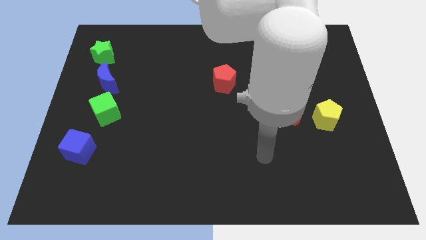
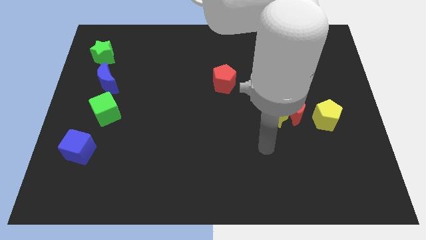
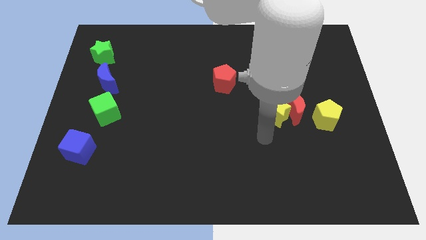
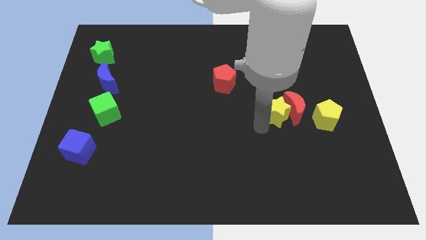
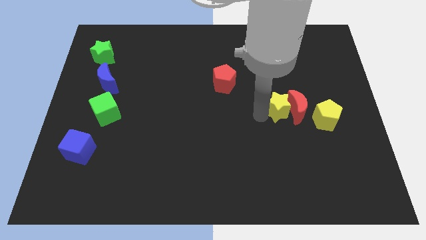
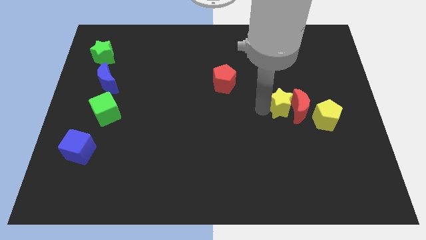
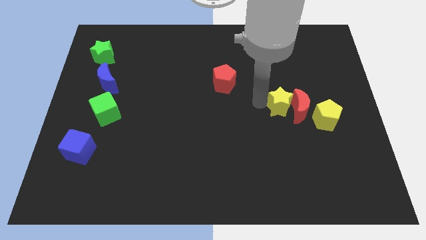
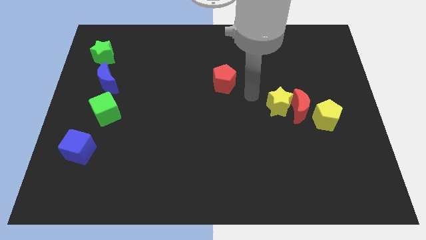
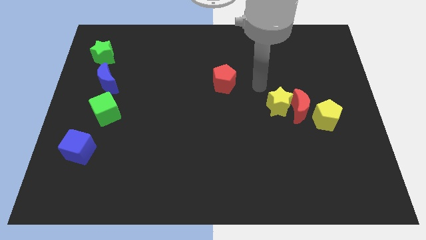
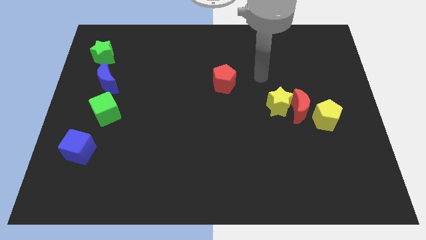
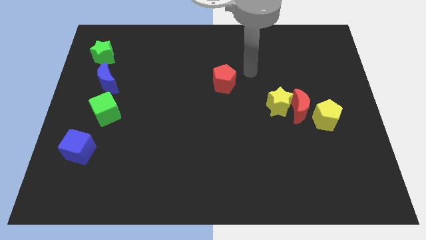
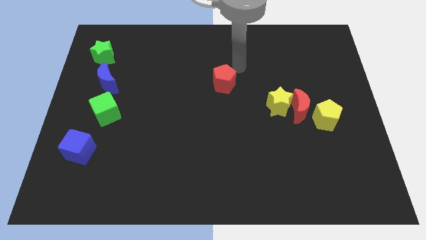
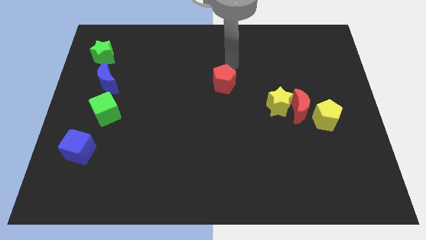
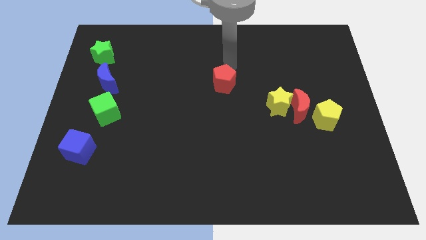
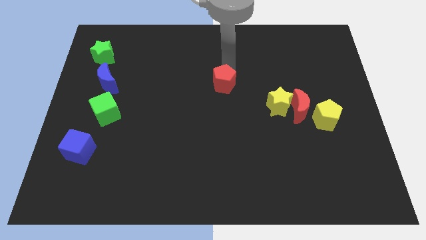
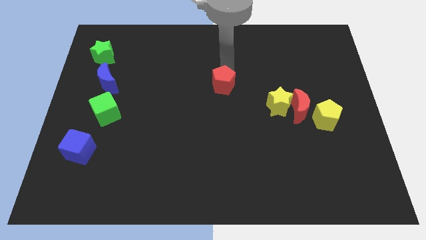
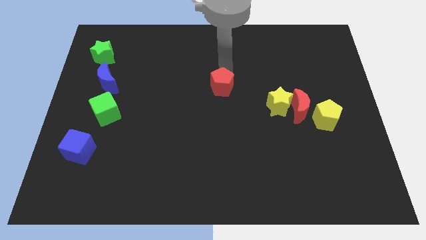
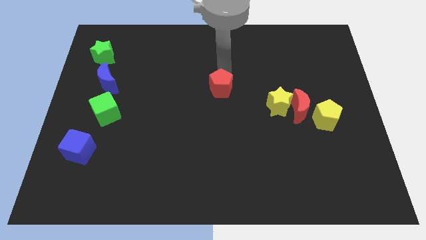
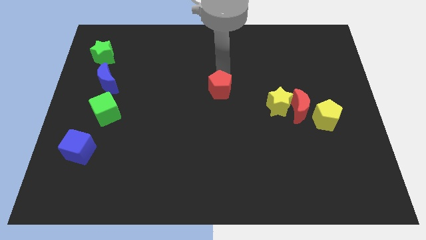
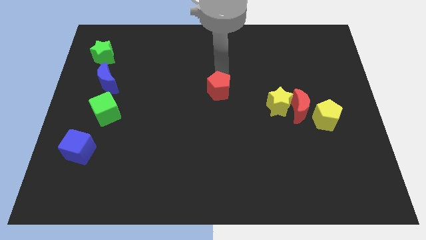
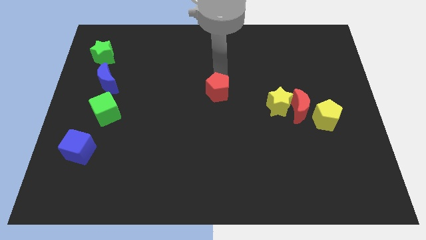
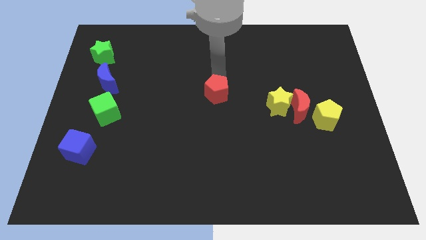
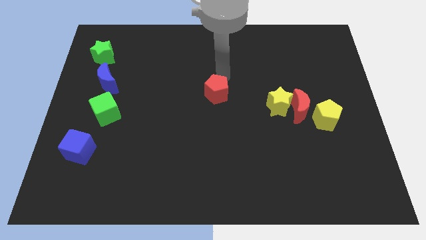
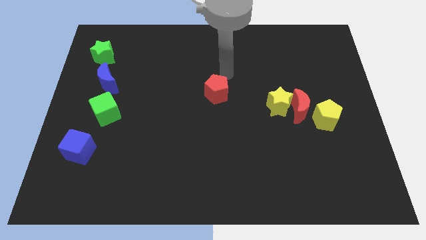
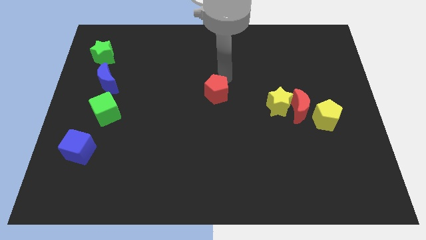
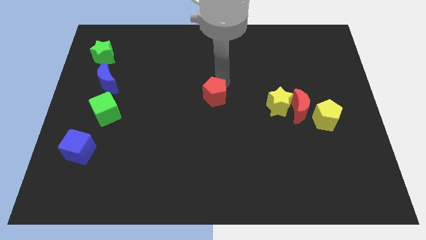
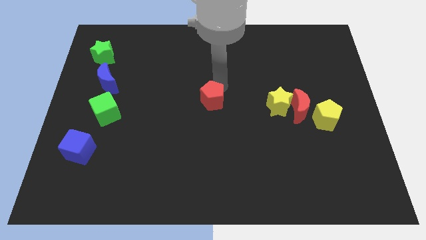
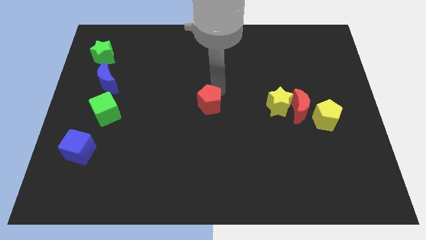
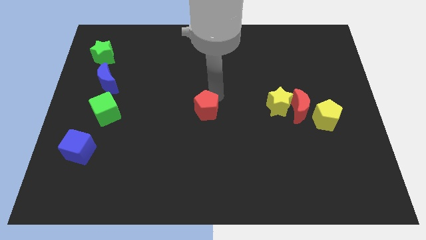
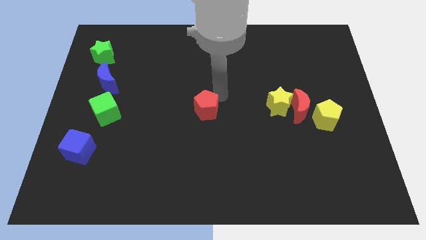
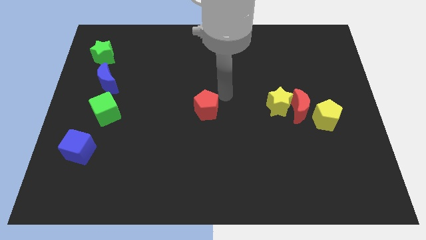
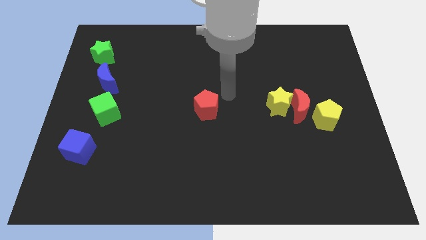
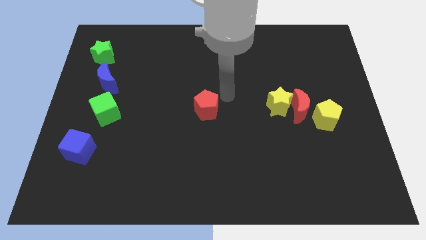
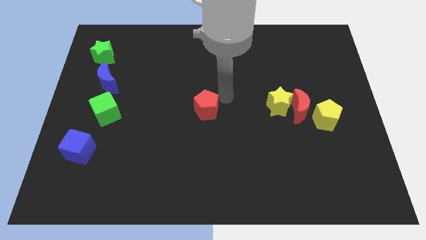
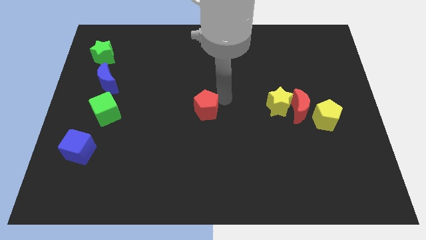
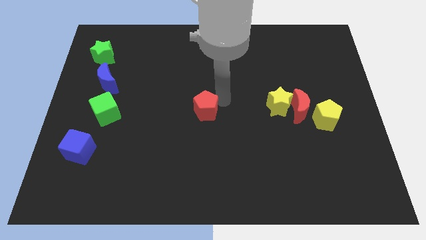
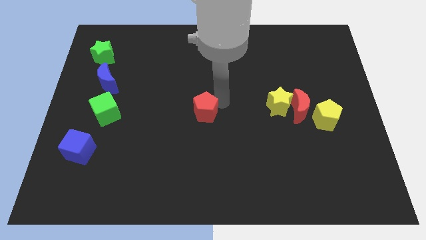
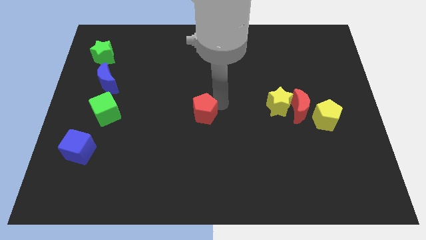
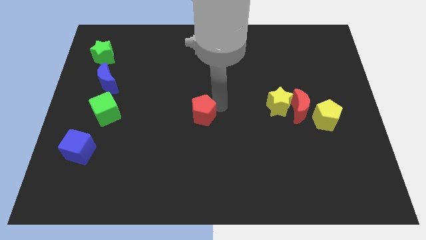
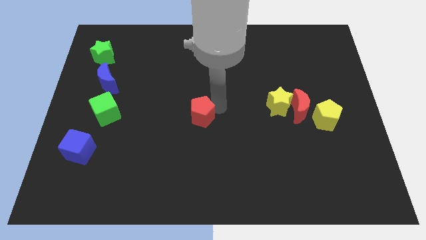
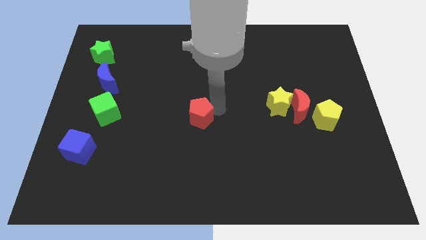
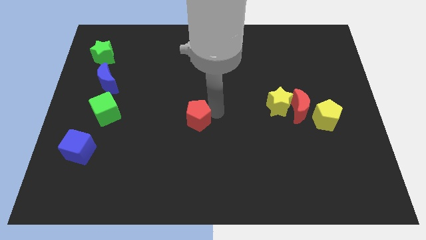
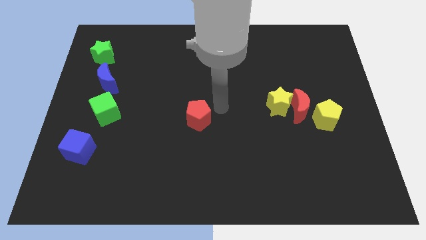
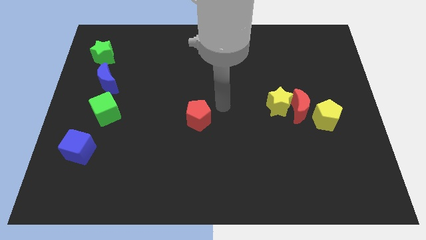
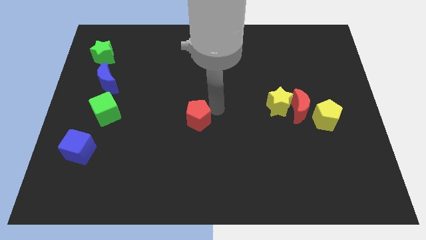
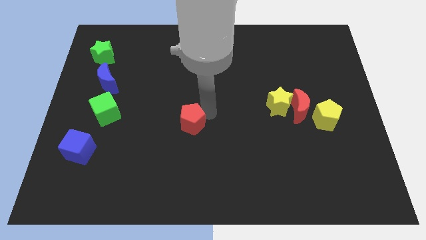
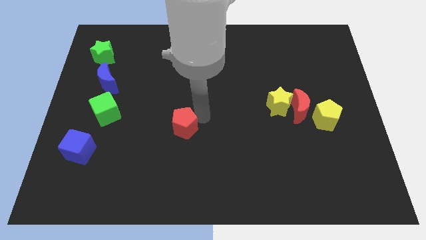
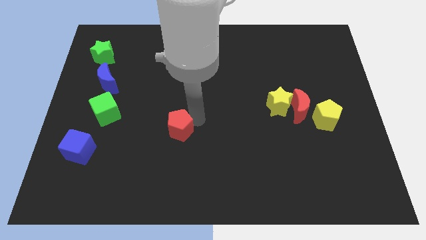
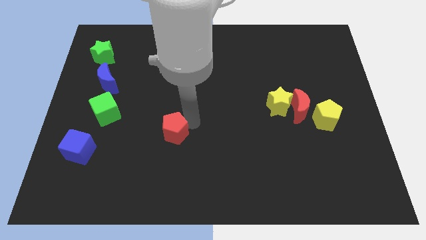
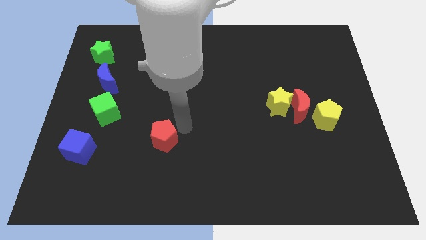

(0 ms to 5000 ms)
push the red pentagon down and then to the left

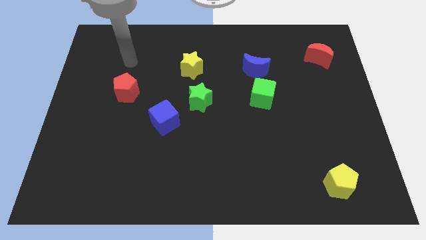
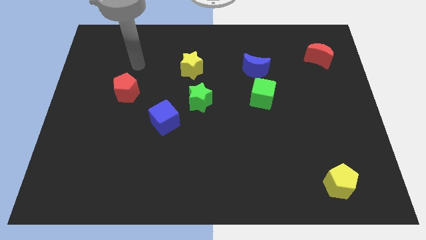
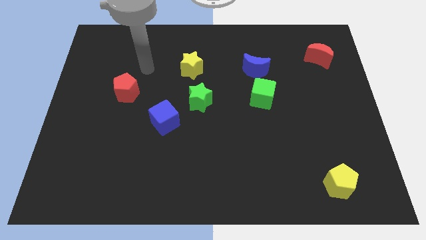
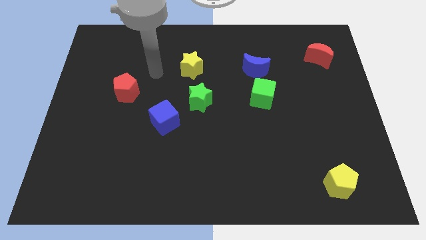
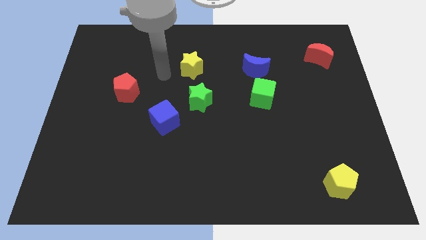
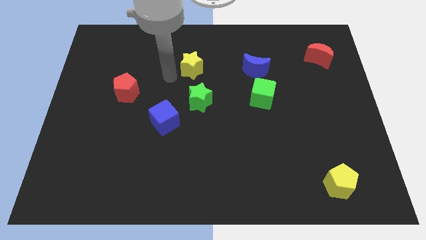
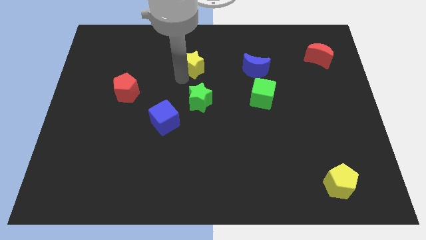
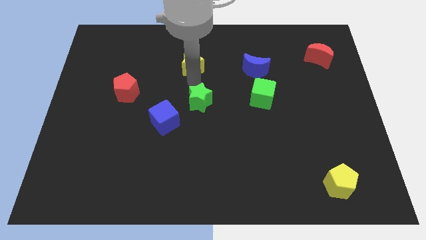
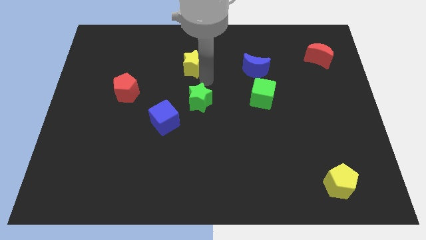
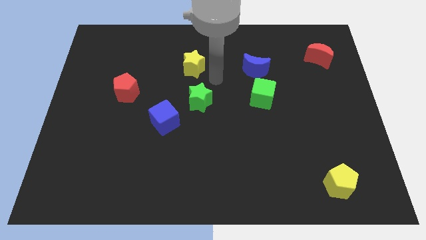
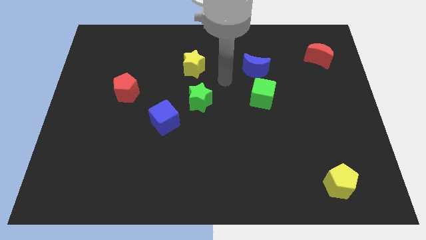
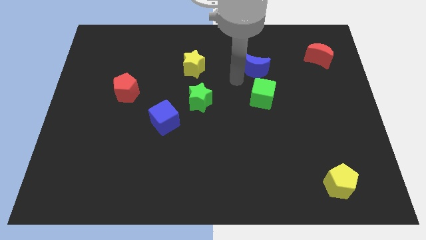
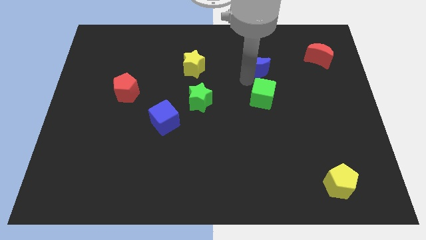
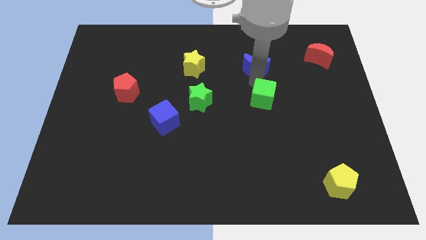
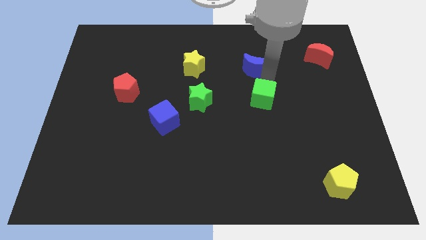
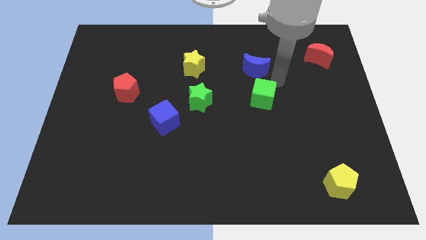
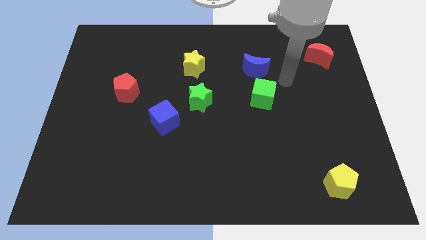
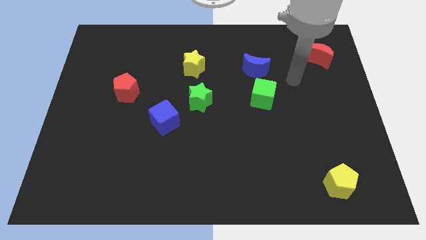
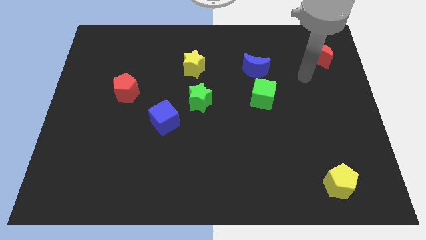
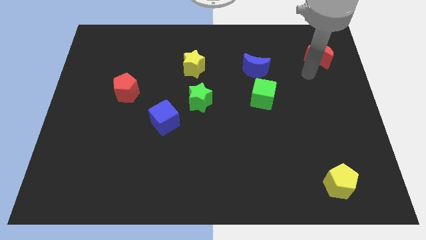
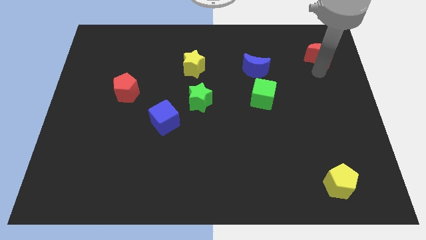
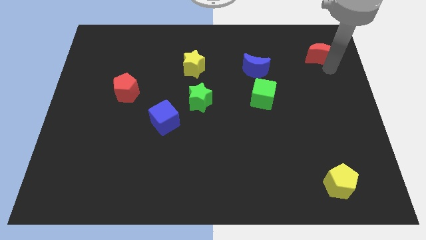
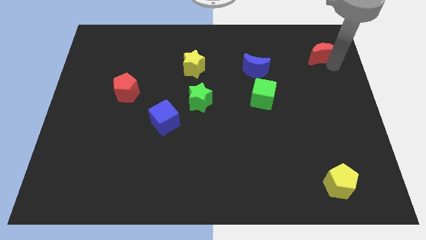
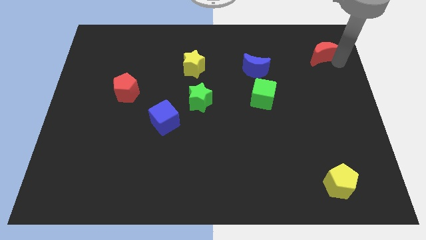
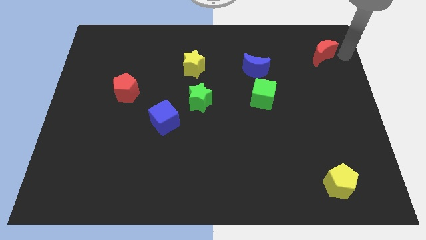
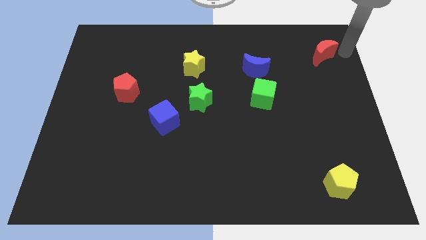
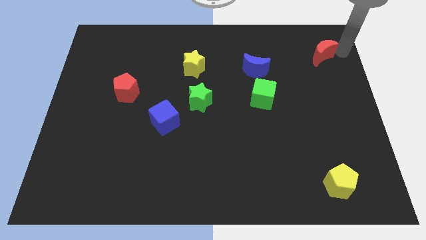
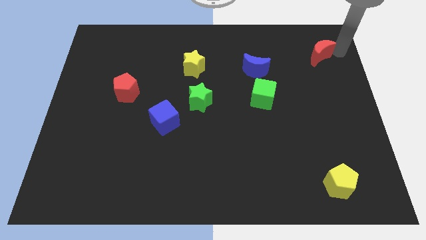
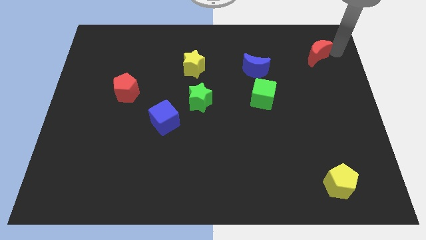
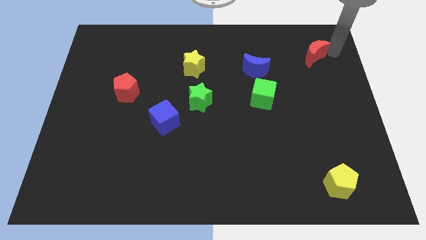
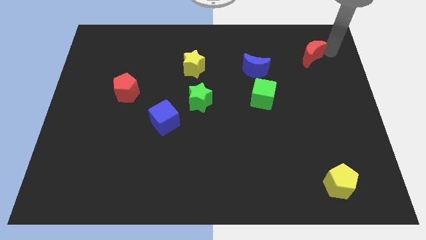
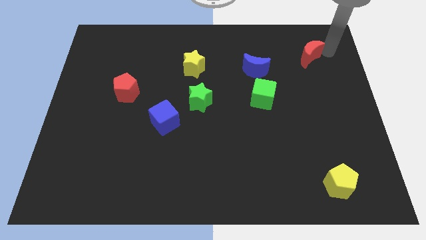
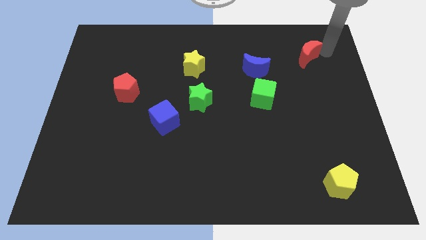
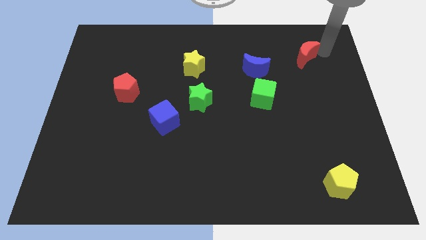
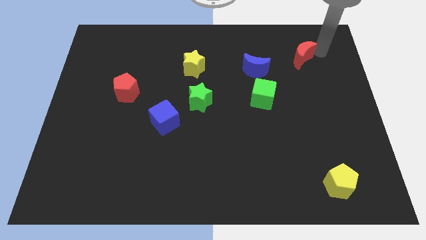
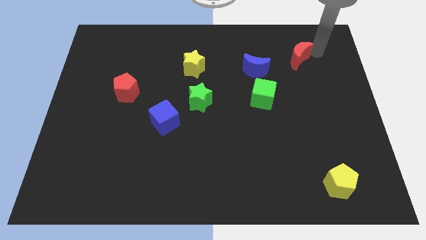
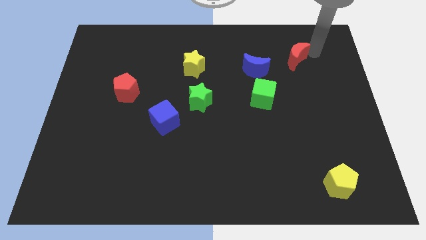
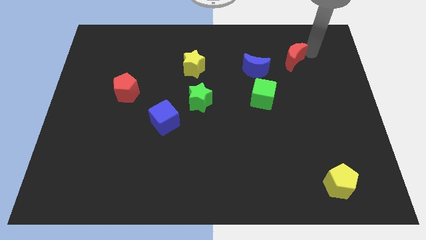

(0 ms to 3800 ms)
slightly push the red moon to the left

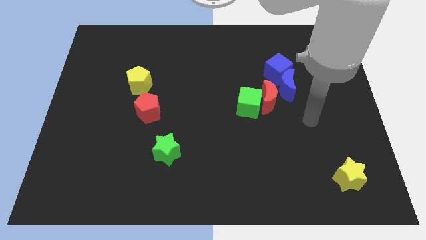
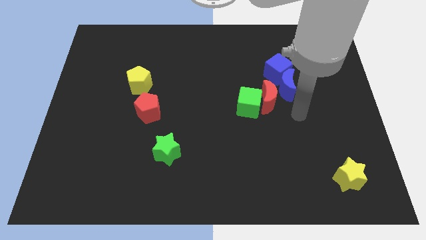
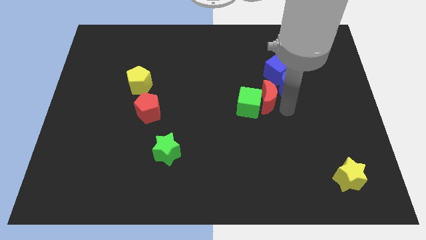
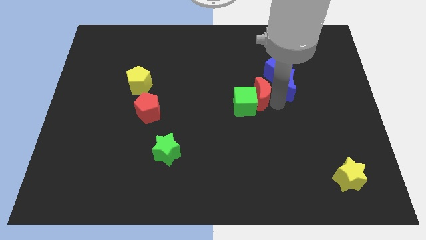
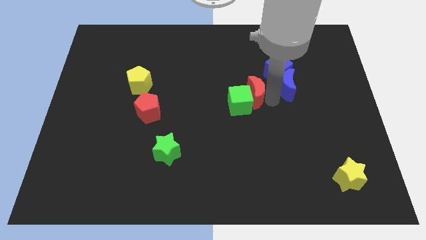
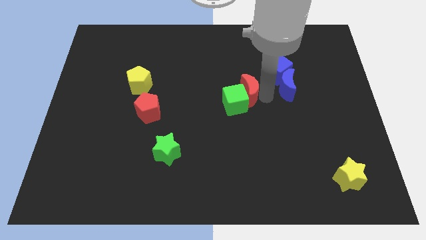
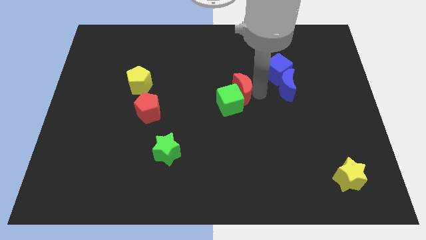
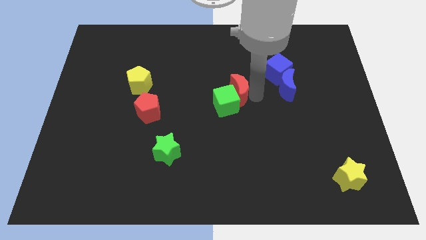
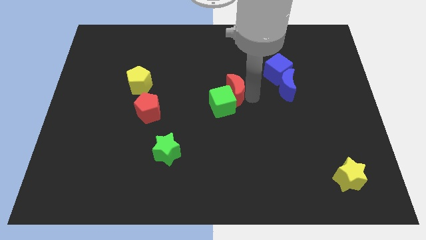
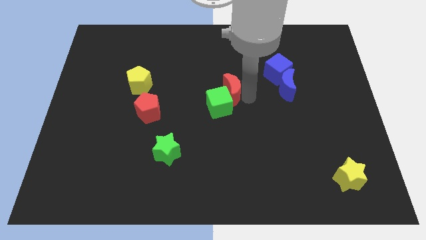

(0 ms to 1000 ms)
slide the green cube somewhat left
